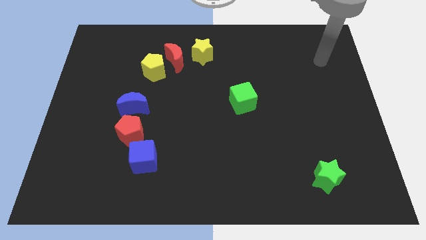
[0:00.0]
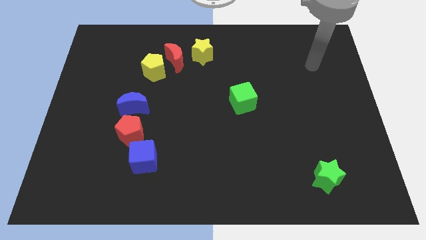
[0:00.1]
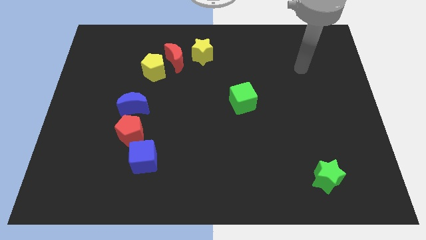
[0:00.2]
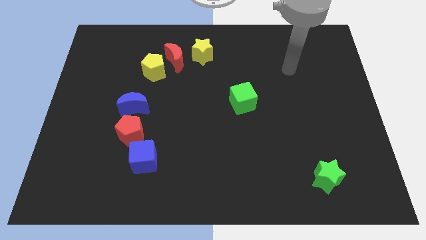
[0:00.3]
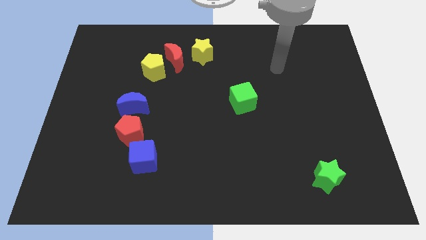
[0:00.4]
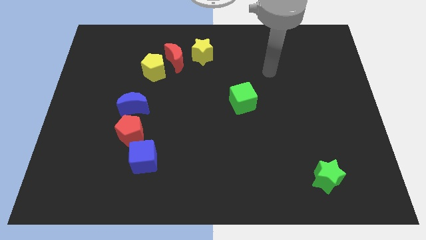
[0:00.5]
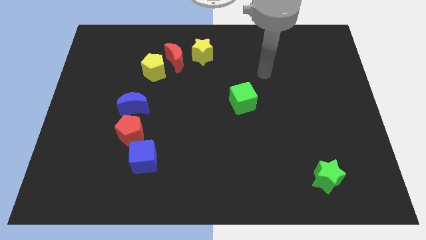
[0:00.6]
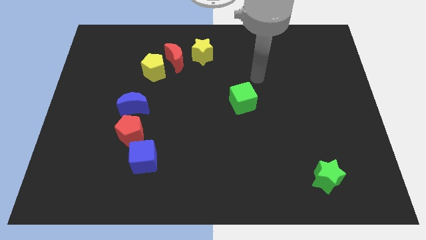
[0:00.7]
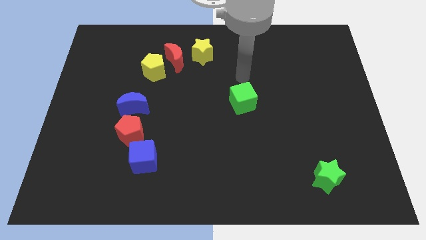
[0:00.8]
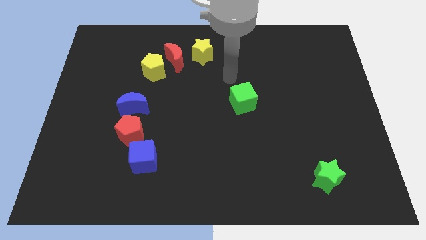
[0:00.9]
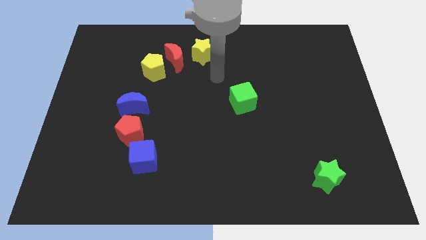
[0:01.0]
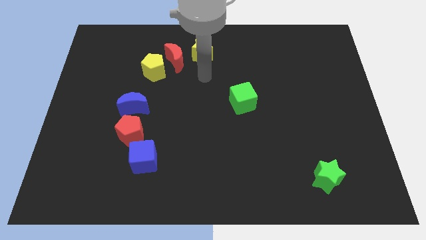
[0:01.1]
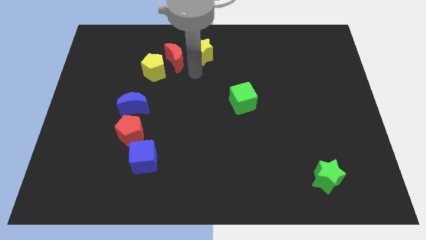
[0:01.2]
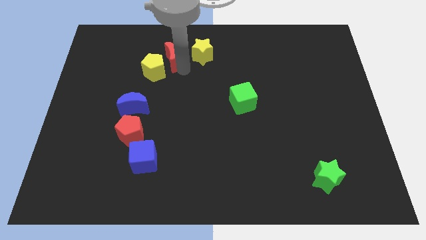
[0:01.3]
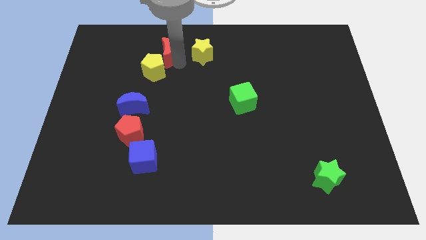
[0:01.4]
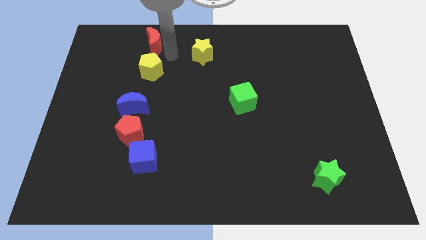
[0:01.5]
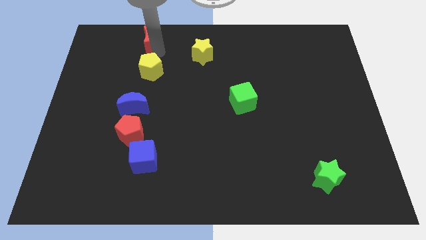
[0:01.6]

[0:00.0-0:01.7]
move the yellow pentagon away from the red moon

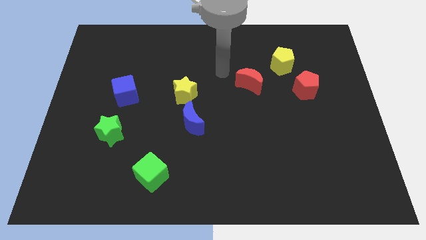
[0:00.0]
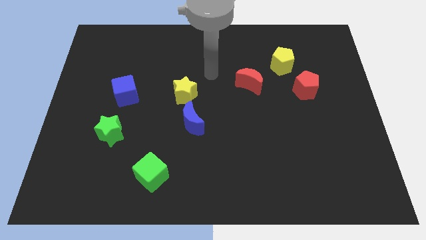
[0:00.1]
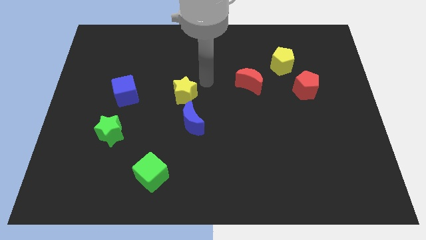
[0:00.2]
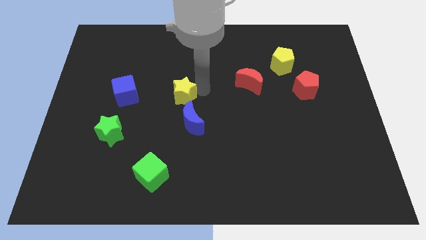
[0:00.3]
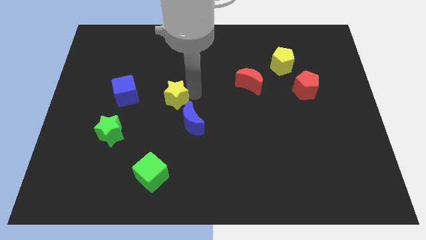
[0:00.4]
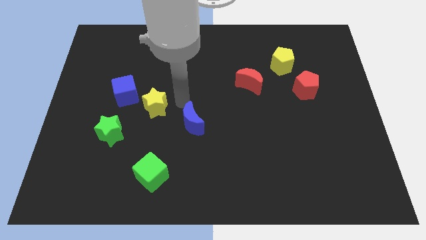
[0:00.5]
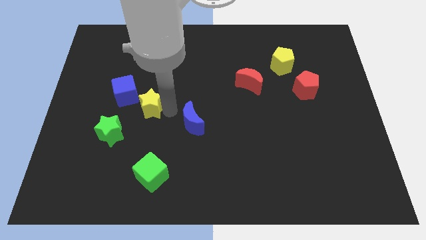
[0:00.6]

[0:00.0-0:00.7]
pull the blue moon apart from the yellow star

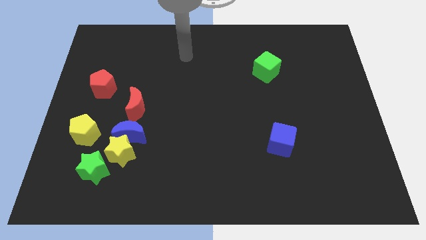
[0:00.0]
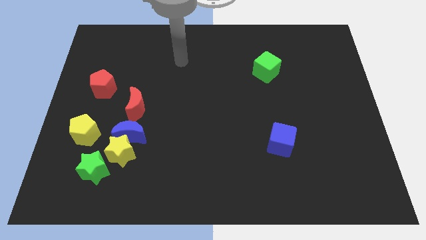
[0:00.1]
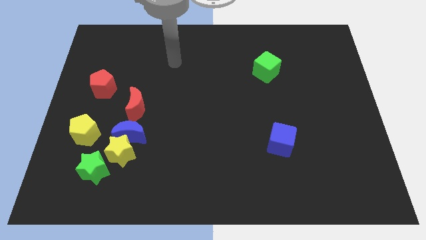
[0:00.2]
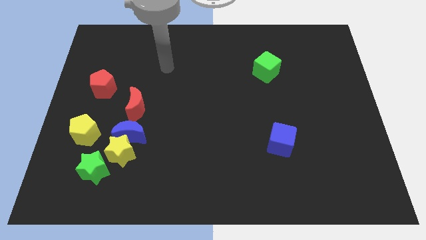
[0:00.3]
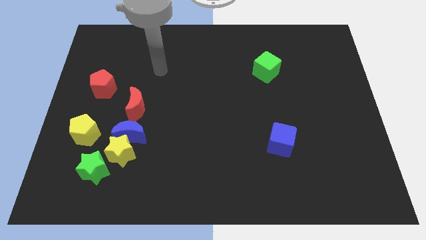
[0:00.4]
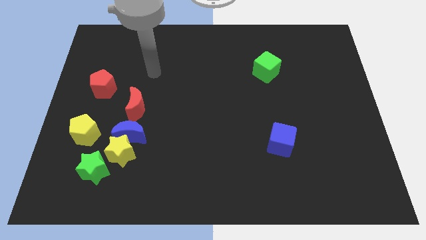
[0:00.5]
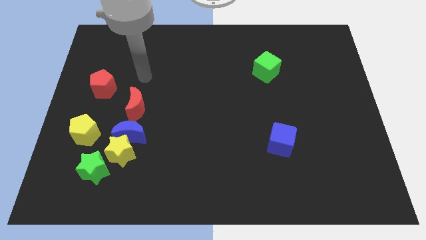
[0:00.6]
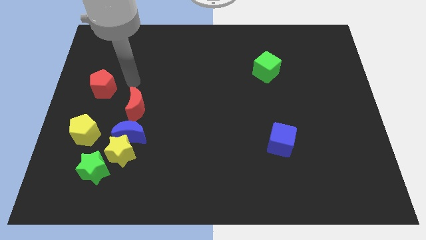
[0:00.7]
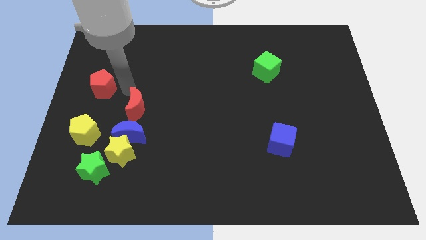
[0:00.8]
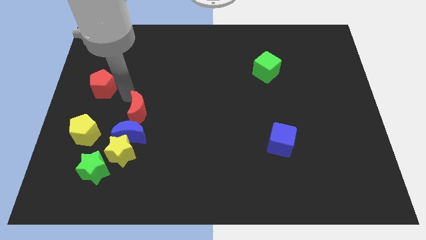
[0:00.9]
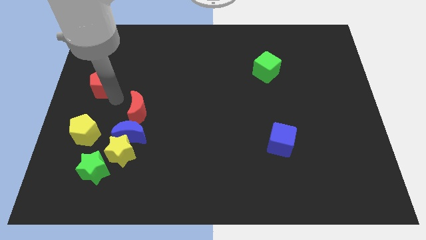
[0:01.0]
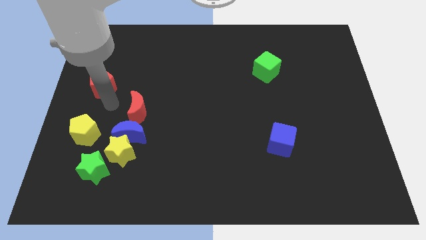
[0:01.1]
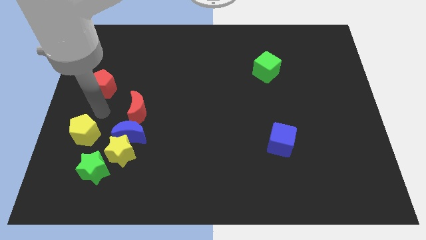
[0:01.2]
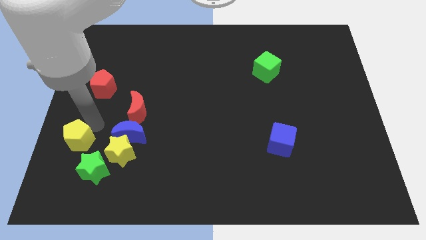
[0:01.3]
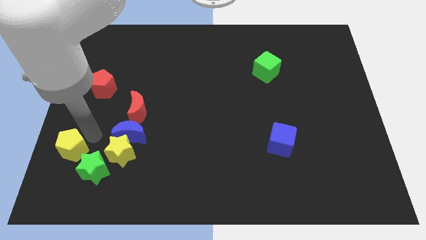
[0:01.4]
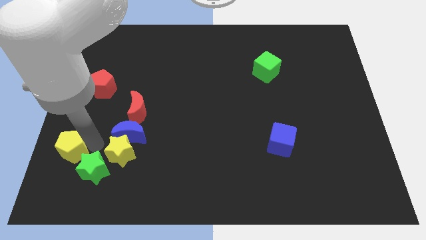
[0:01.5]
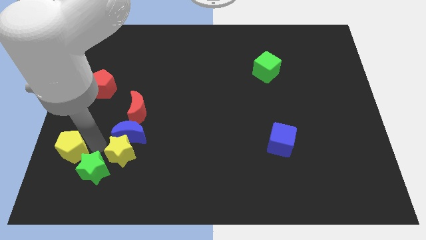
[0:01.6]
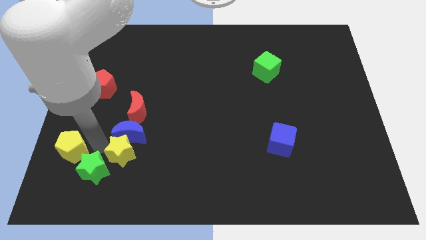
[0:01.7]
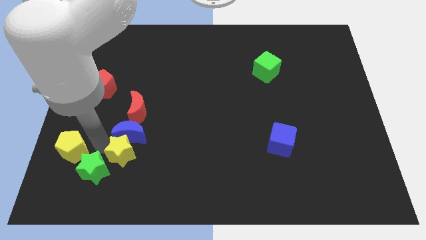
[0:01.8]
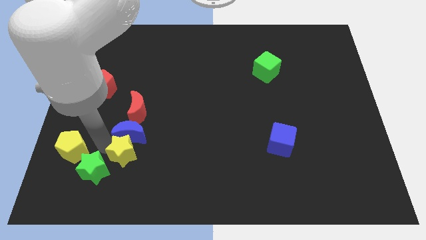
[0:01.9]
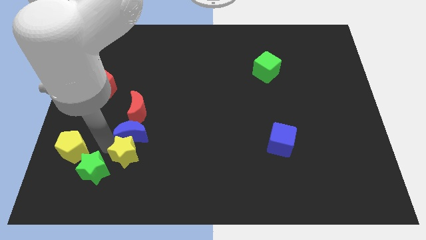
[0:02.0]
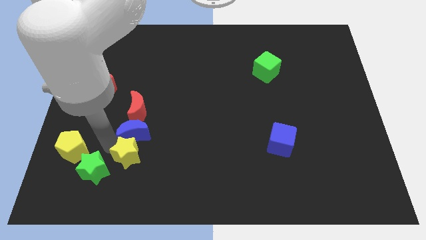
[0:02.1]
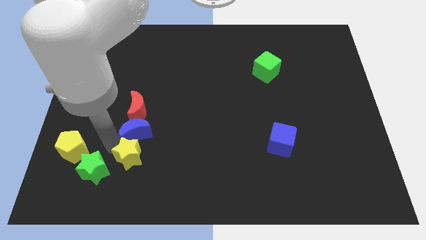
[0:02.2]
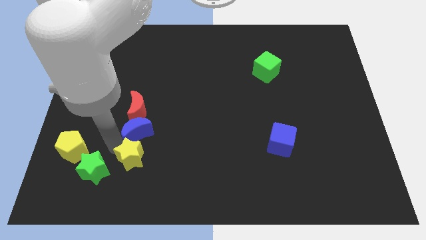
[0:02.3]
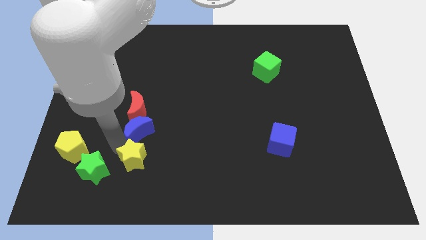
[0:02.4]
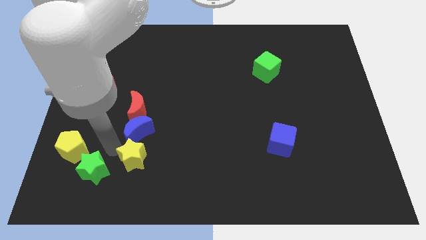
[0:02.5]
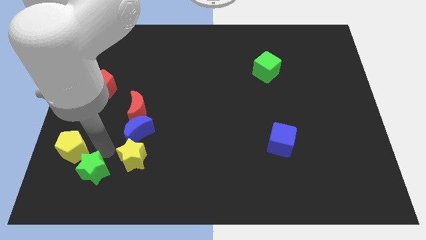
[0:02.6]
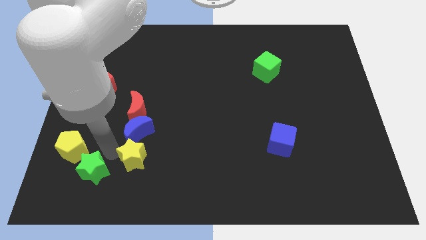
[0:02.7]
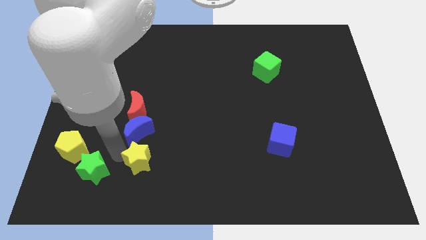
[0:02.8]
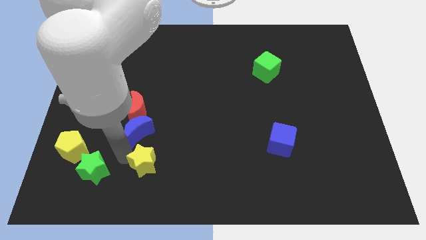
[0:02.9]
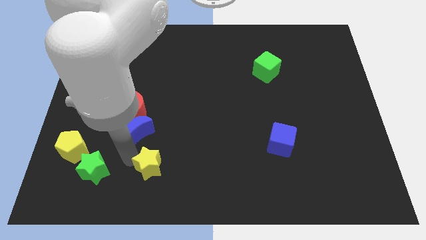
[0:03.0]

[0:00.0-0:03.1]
pull the yellow star apart from the group

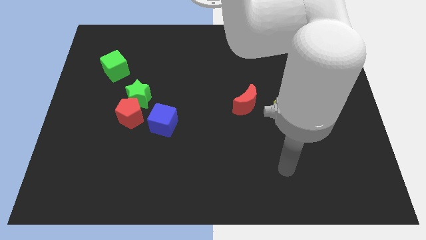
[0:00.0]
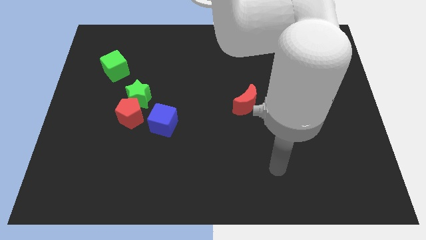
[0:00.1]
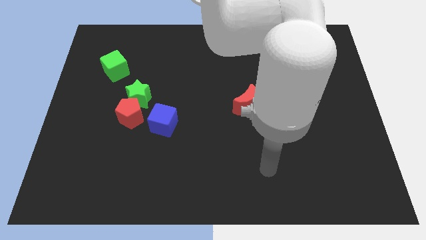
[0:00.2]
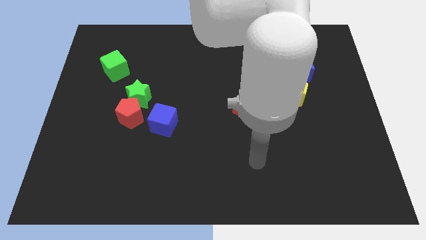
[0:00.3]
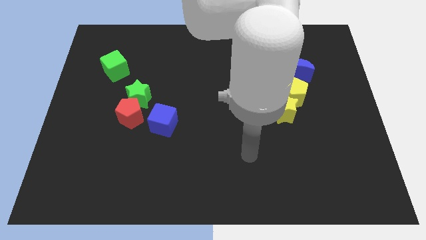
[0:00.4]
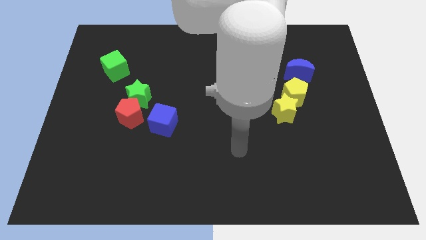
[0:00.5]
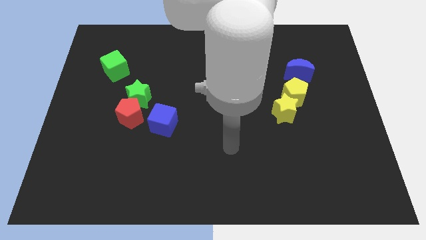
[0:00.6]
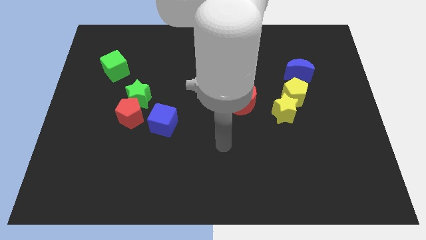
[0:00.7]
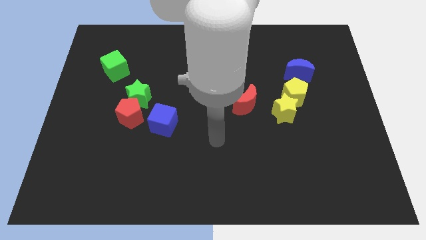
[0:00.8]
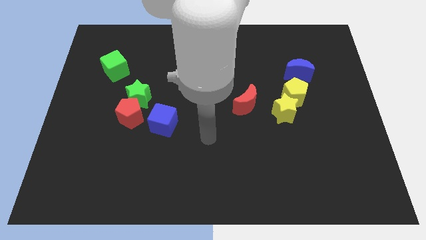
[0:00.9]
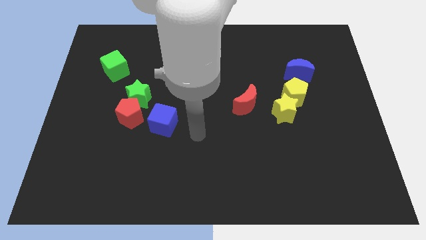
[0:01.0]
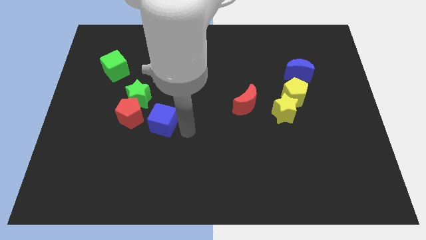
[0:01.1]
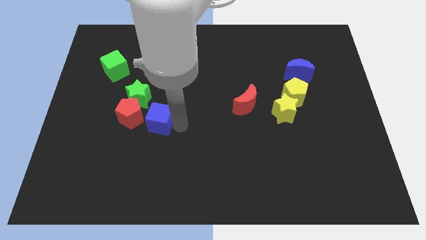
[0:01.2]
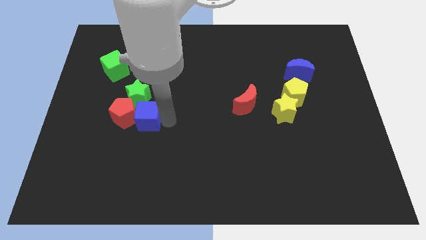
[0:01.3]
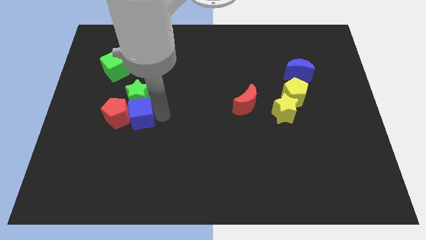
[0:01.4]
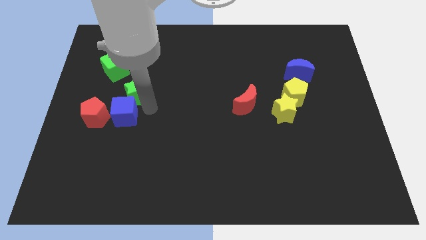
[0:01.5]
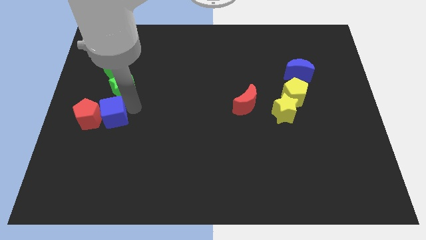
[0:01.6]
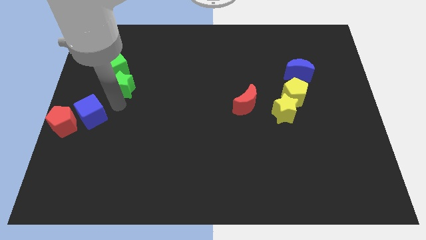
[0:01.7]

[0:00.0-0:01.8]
move the red pentagon away from the green star and blue cube

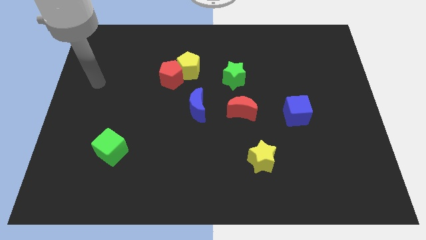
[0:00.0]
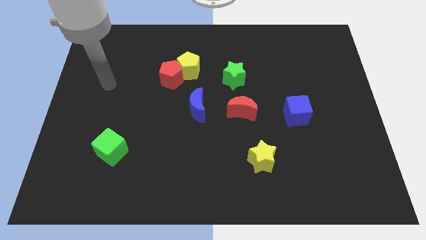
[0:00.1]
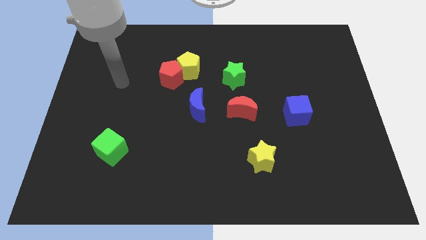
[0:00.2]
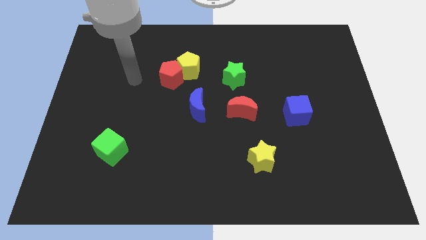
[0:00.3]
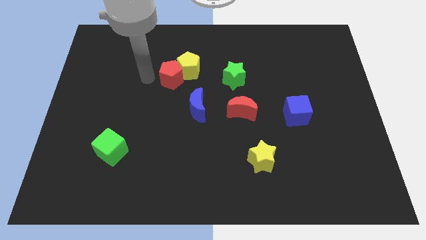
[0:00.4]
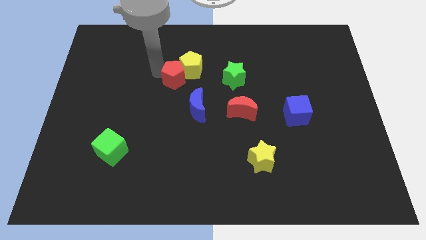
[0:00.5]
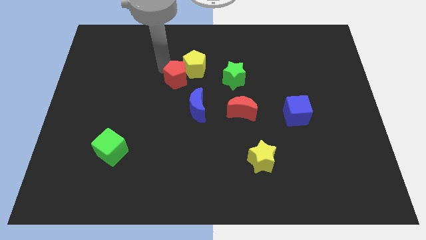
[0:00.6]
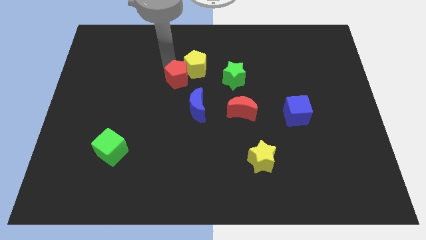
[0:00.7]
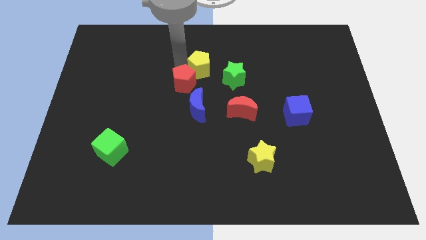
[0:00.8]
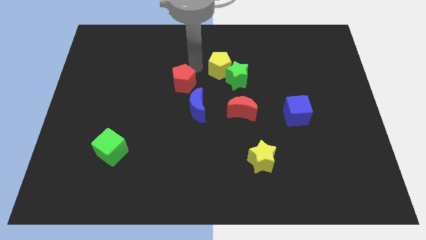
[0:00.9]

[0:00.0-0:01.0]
separate the red pentagon from the yellow pentagon

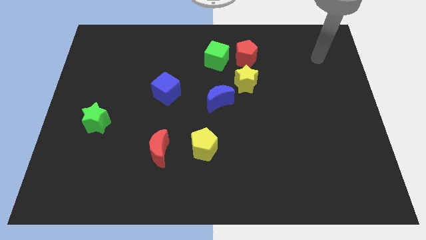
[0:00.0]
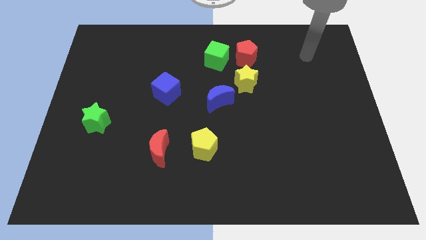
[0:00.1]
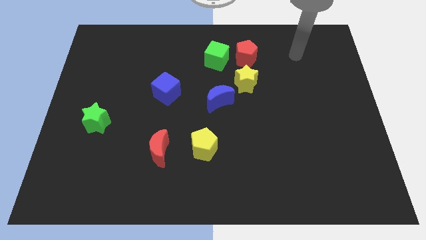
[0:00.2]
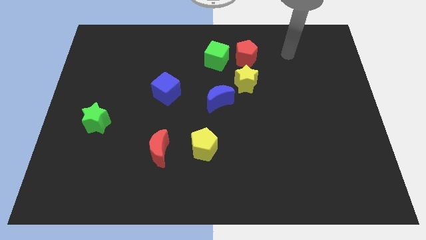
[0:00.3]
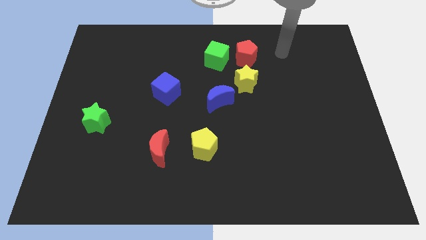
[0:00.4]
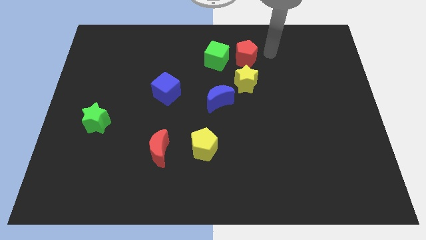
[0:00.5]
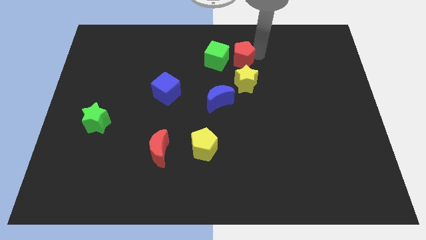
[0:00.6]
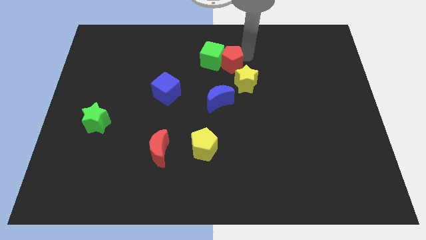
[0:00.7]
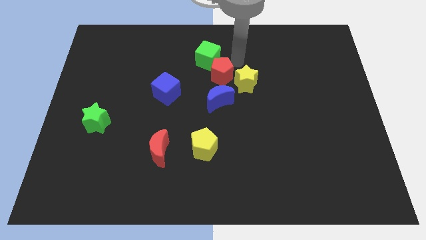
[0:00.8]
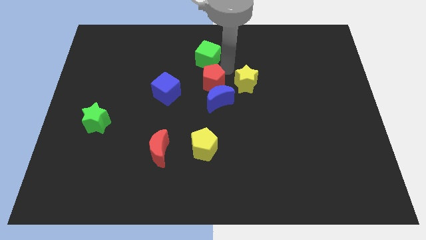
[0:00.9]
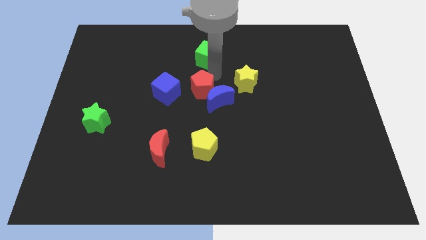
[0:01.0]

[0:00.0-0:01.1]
separate the green cube from the red pentagon

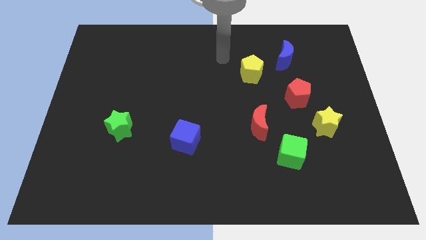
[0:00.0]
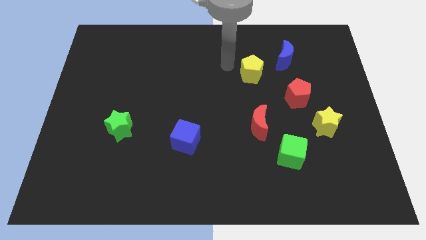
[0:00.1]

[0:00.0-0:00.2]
pull the red moon apart from the green cube
